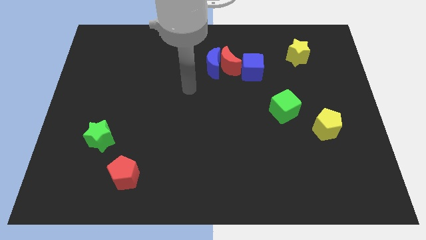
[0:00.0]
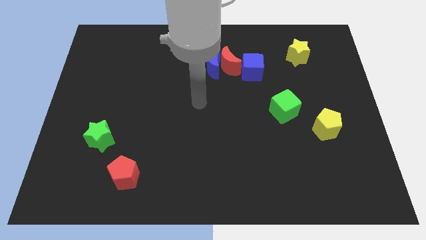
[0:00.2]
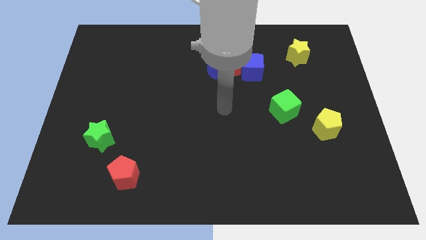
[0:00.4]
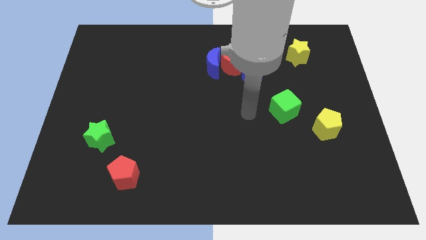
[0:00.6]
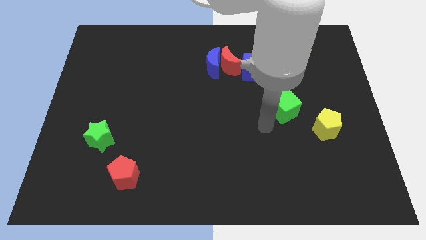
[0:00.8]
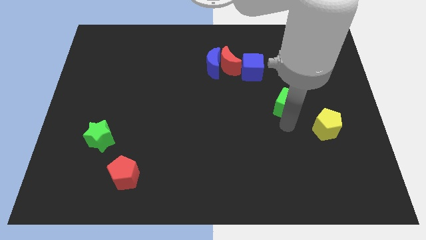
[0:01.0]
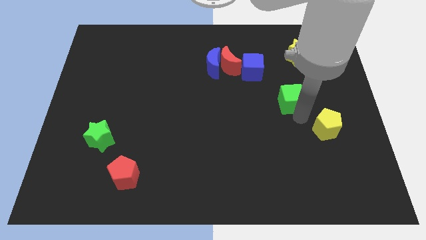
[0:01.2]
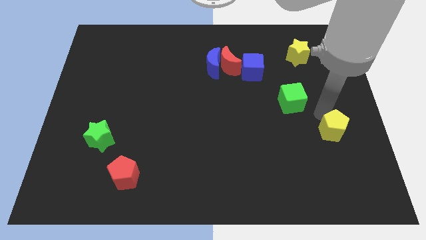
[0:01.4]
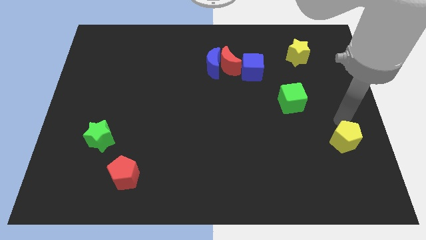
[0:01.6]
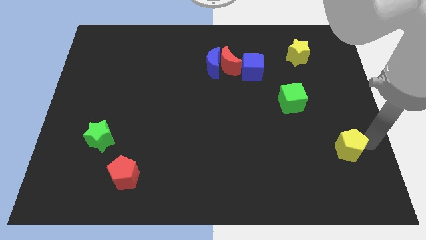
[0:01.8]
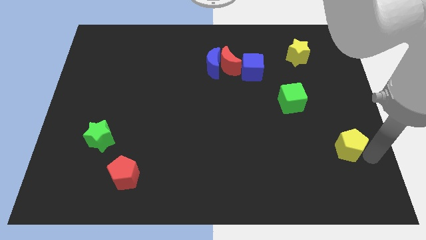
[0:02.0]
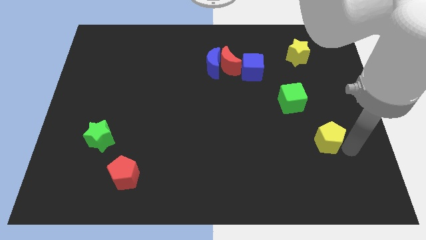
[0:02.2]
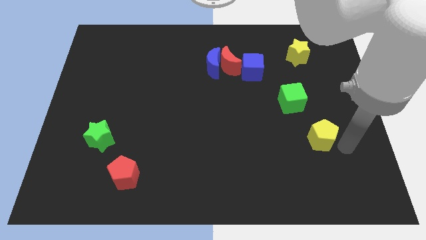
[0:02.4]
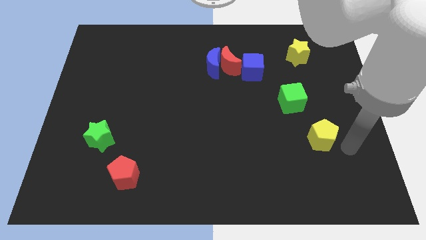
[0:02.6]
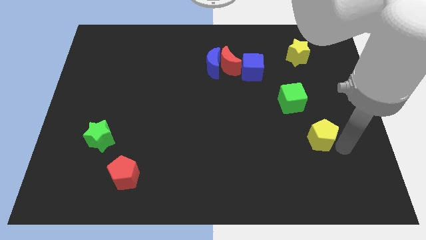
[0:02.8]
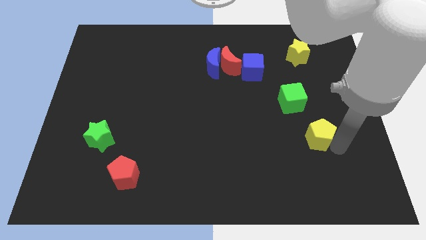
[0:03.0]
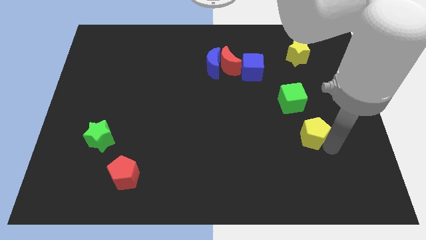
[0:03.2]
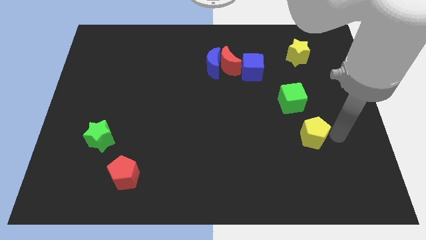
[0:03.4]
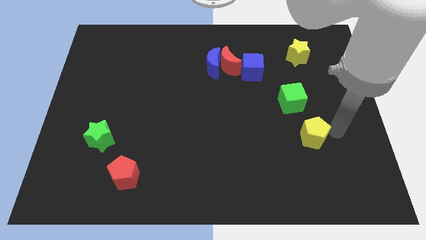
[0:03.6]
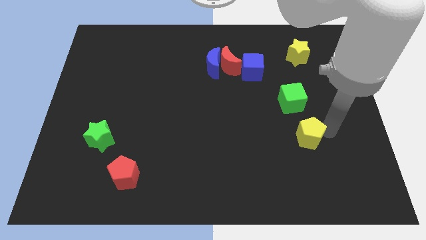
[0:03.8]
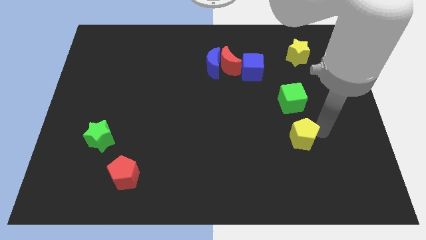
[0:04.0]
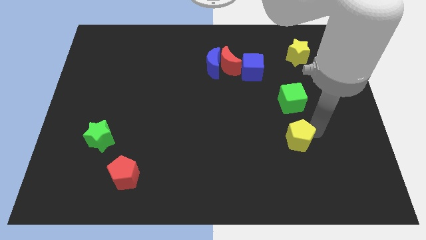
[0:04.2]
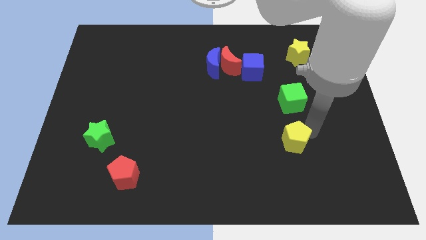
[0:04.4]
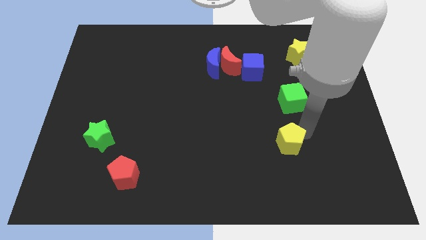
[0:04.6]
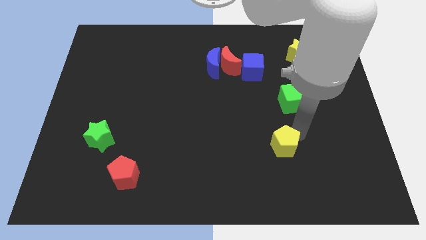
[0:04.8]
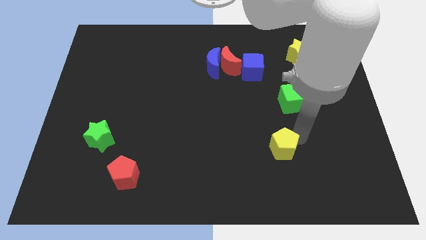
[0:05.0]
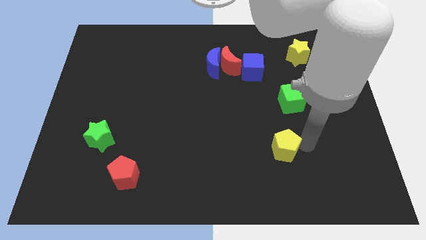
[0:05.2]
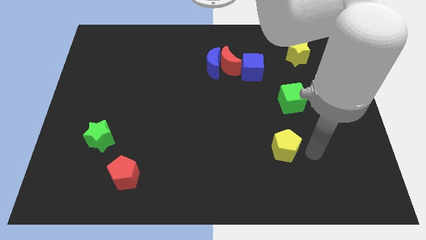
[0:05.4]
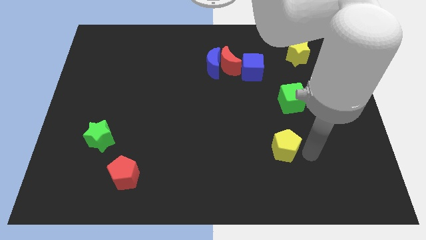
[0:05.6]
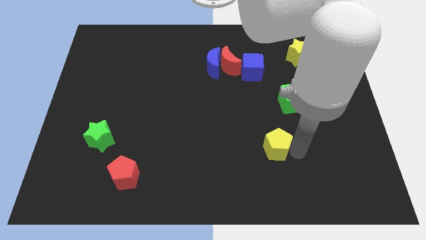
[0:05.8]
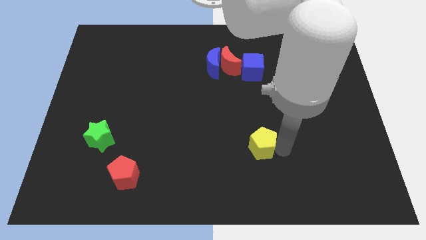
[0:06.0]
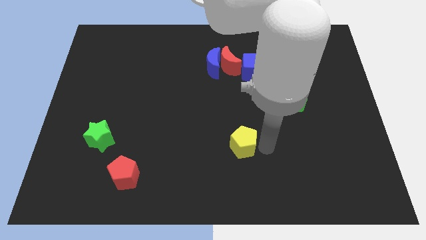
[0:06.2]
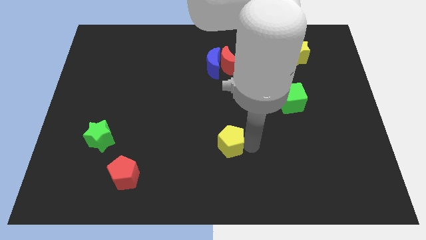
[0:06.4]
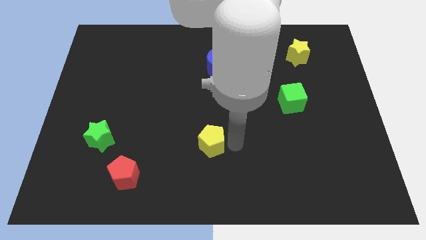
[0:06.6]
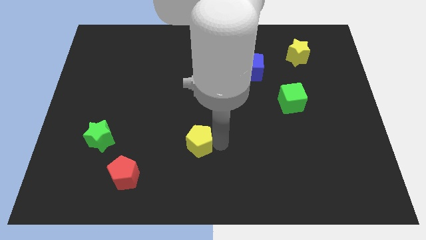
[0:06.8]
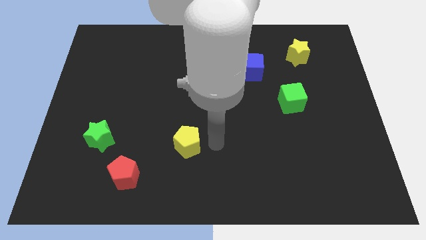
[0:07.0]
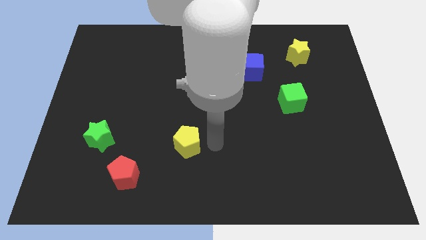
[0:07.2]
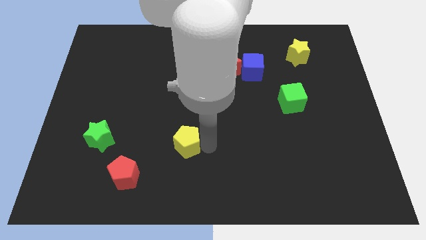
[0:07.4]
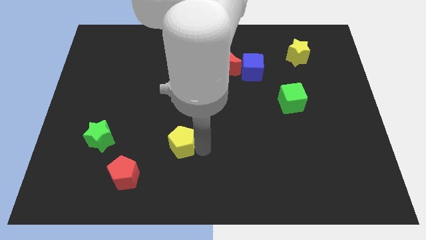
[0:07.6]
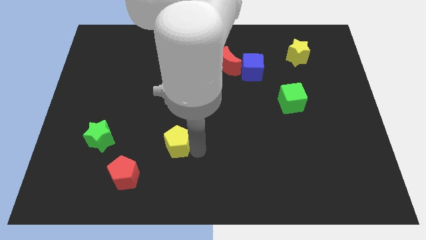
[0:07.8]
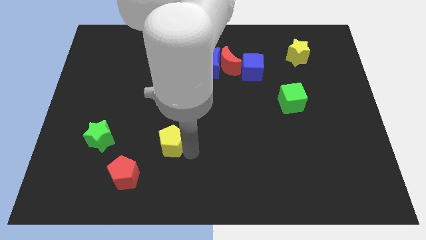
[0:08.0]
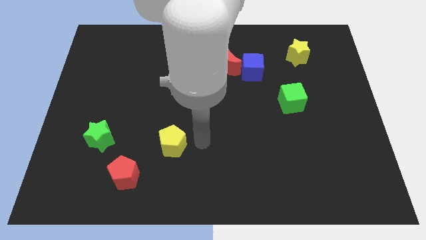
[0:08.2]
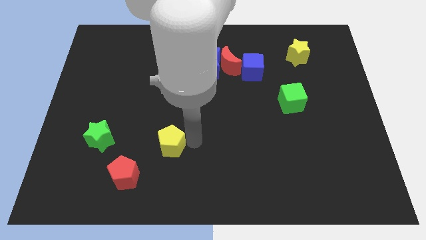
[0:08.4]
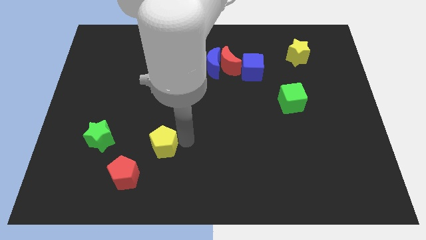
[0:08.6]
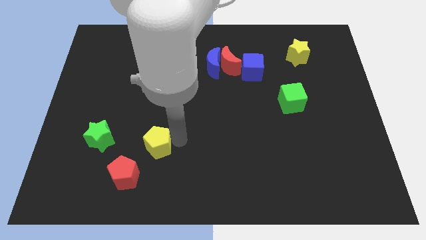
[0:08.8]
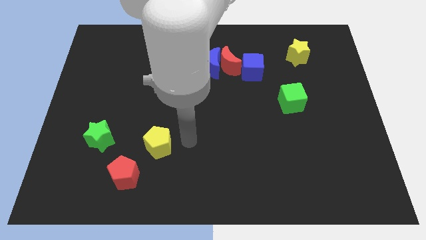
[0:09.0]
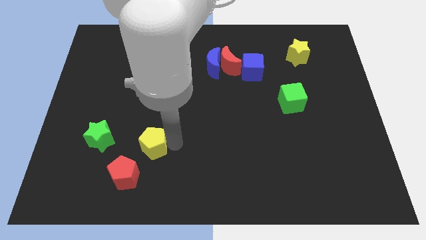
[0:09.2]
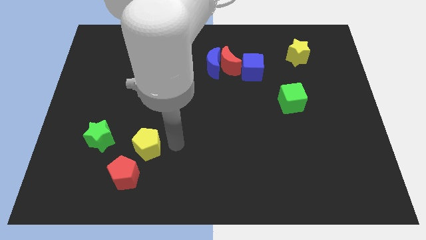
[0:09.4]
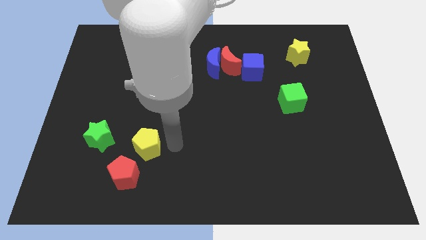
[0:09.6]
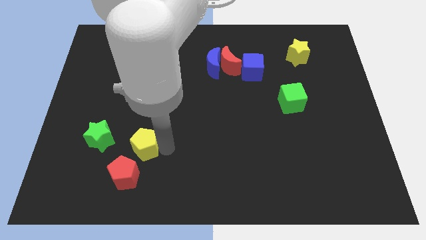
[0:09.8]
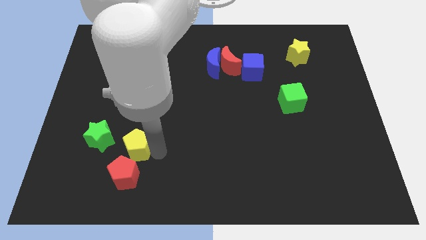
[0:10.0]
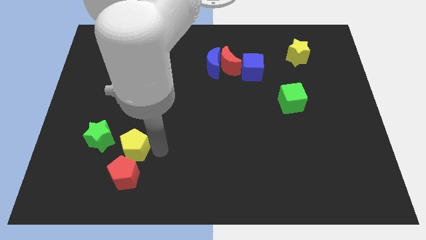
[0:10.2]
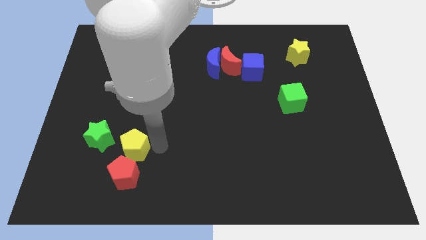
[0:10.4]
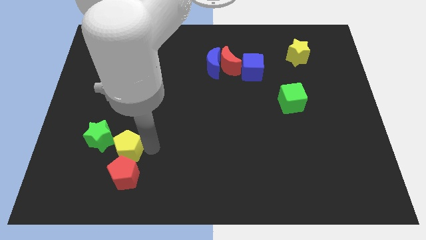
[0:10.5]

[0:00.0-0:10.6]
push the yellow pentagon diagonally up and to the left of the red pentagon

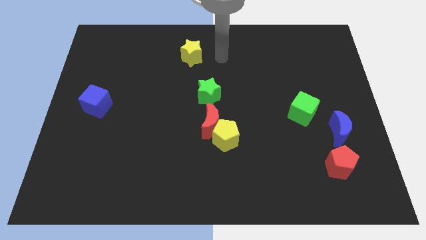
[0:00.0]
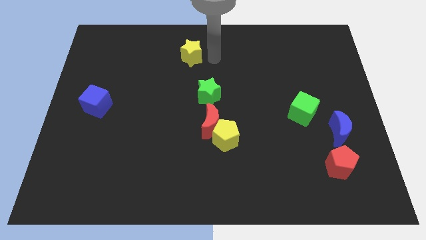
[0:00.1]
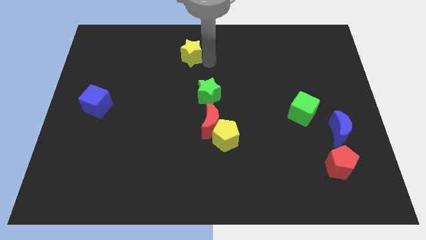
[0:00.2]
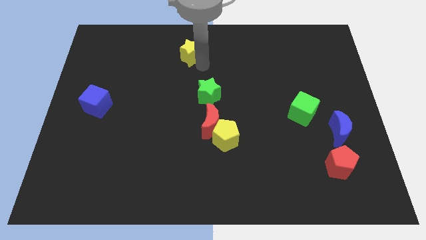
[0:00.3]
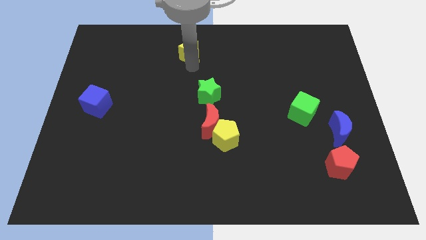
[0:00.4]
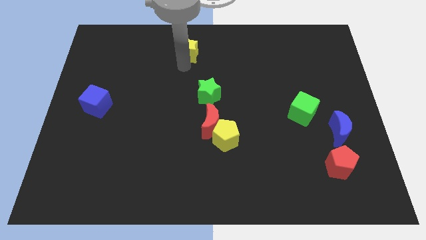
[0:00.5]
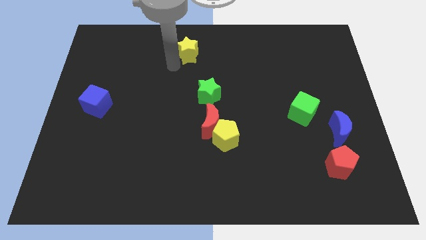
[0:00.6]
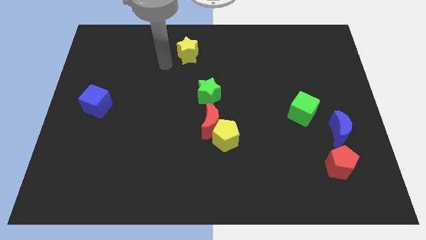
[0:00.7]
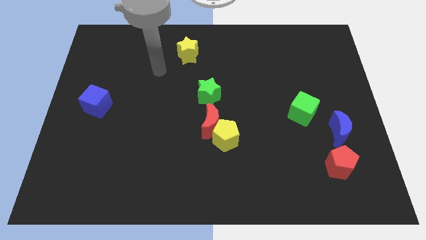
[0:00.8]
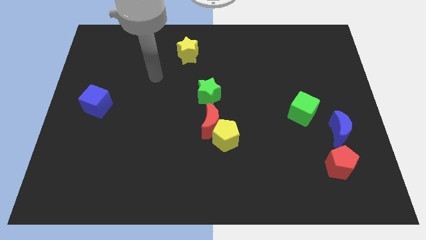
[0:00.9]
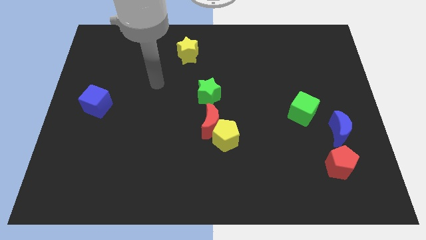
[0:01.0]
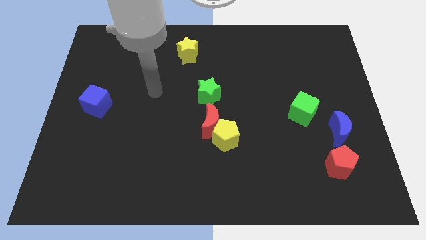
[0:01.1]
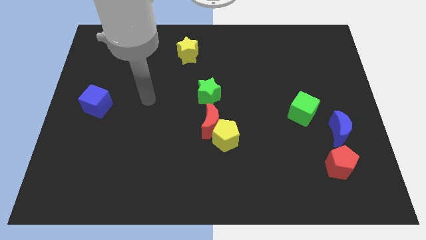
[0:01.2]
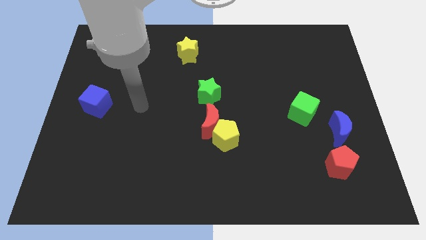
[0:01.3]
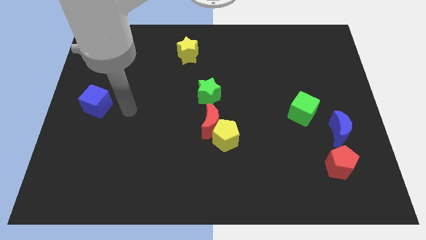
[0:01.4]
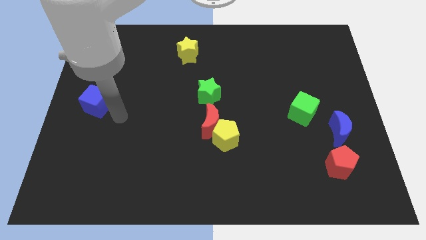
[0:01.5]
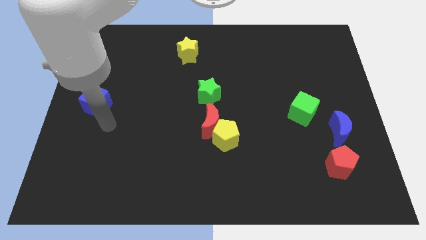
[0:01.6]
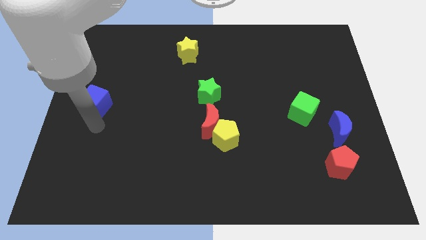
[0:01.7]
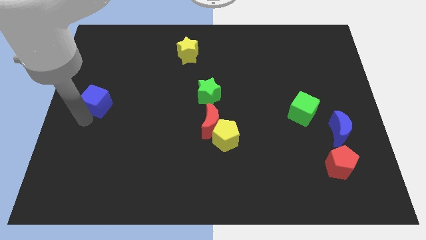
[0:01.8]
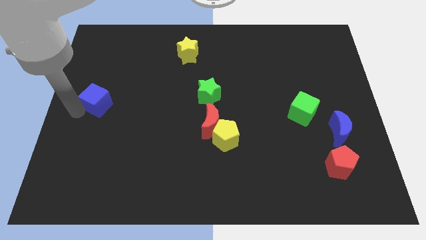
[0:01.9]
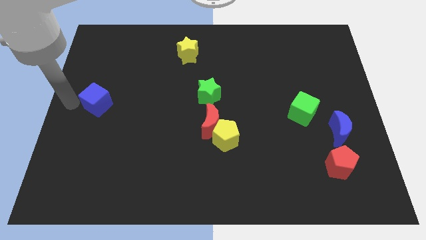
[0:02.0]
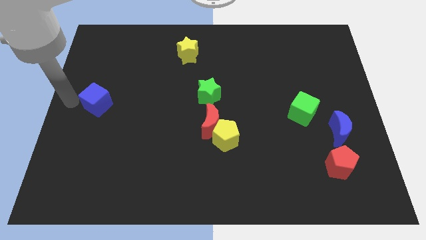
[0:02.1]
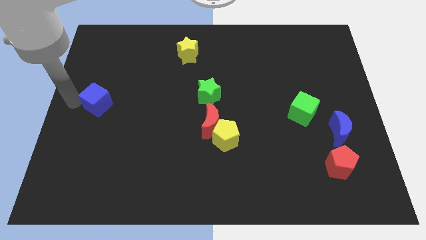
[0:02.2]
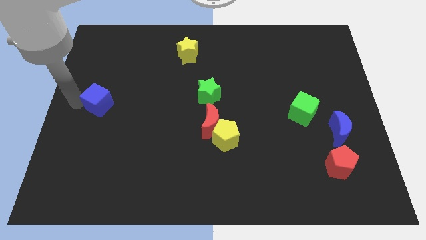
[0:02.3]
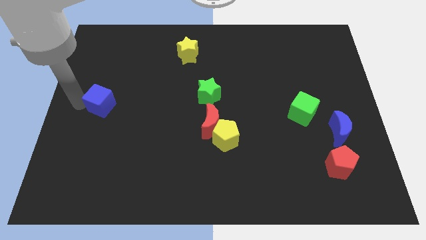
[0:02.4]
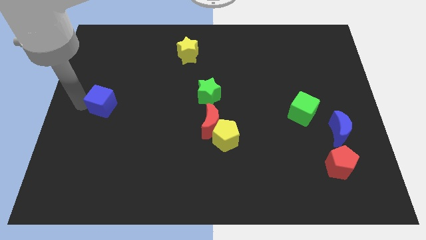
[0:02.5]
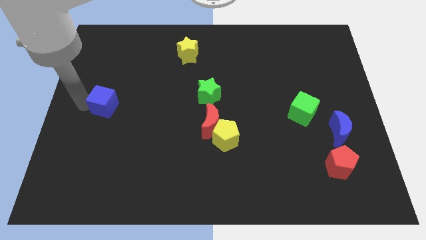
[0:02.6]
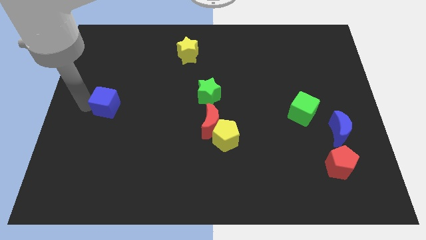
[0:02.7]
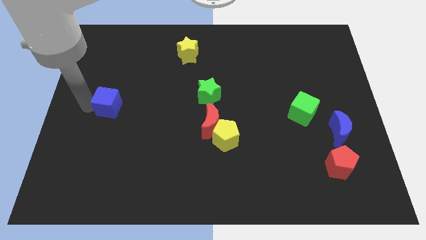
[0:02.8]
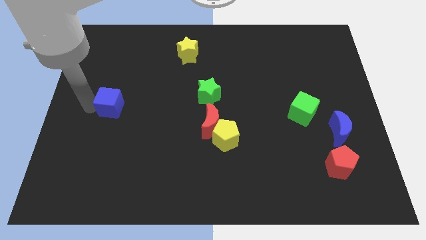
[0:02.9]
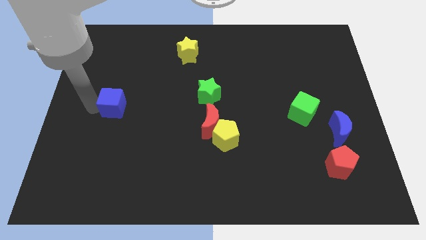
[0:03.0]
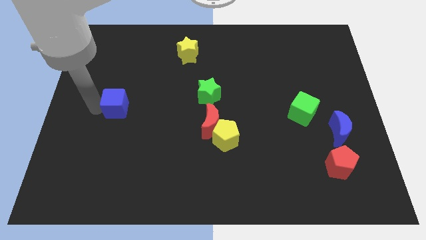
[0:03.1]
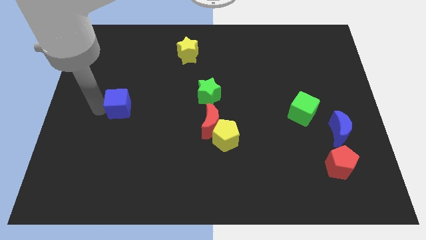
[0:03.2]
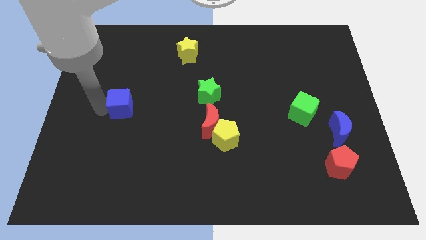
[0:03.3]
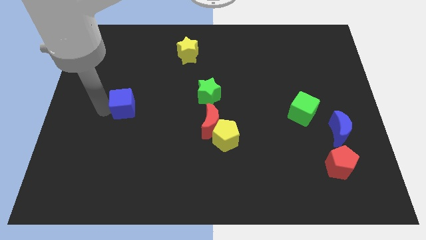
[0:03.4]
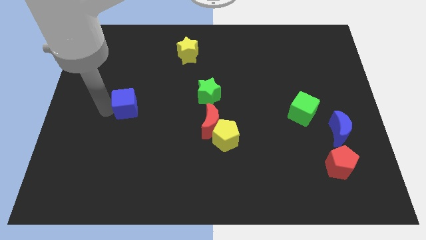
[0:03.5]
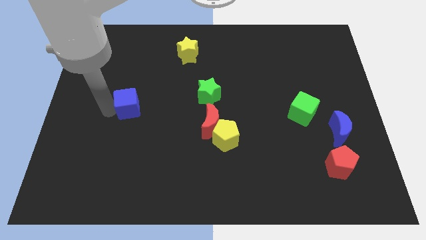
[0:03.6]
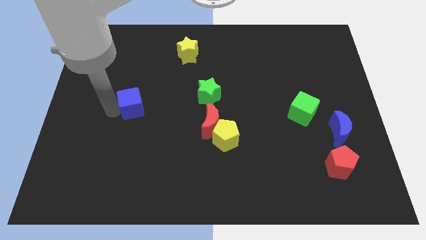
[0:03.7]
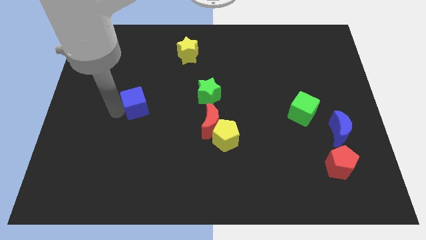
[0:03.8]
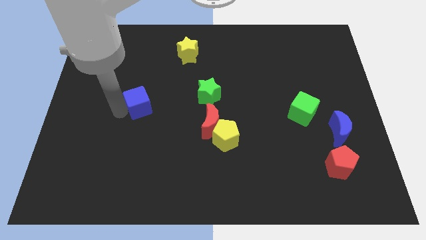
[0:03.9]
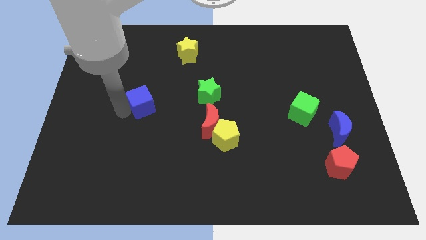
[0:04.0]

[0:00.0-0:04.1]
put the blue cube to the left of the green star
